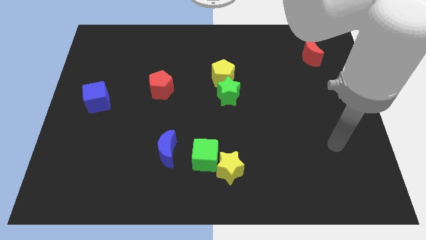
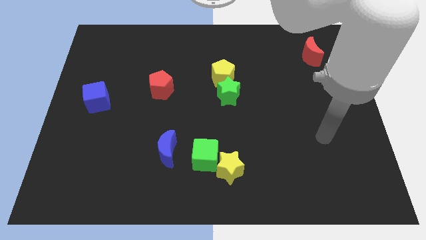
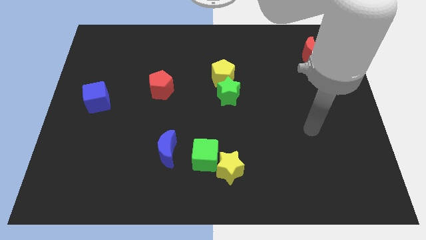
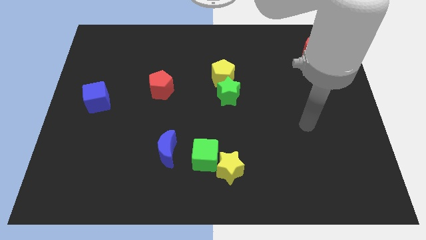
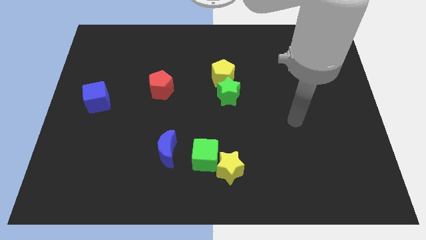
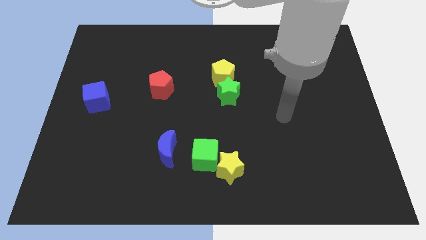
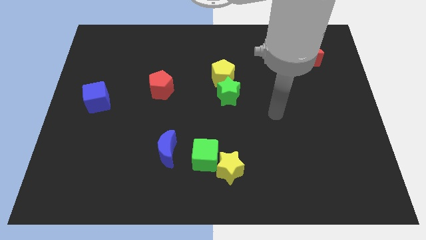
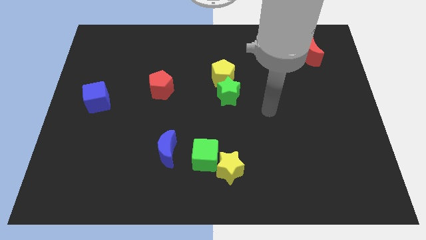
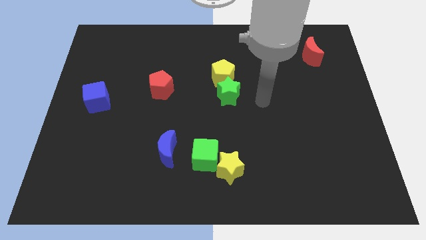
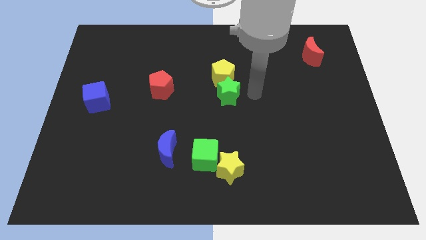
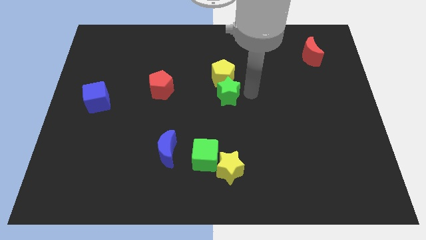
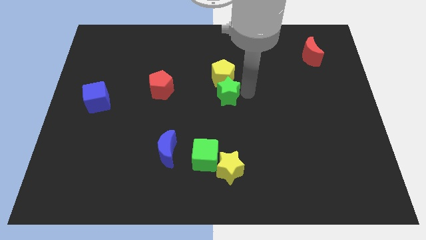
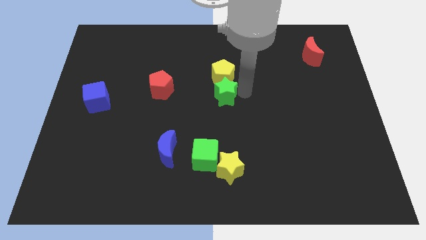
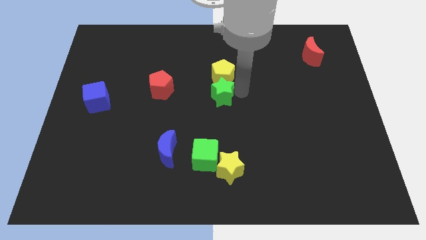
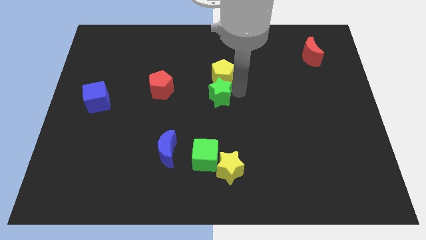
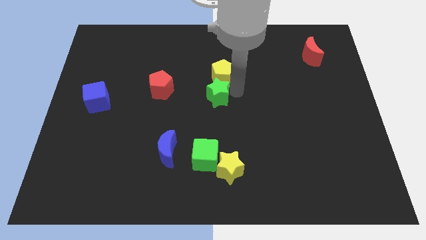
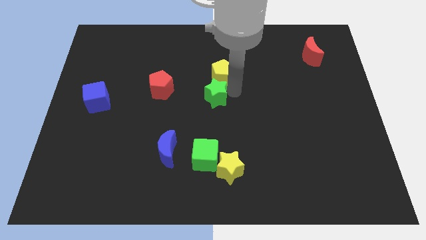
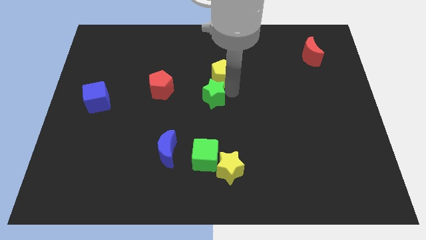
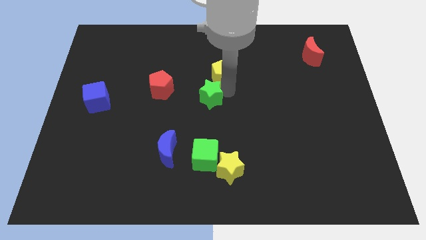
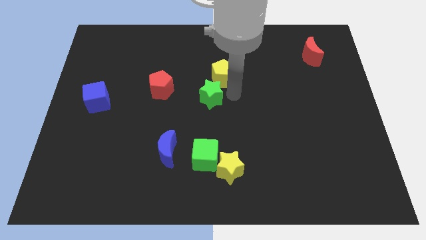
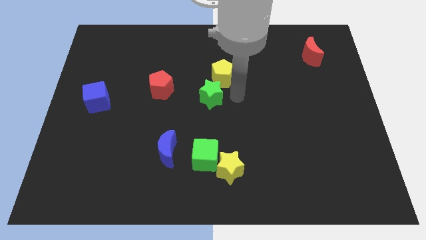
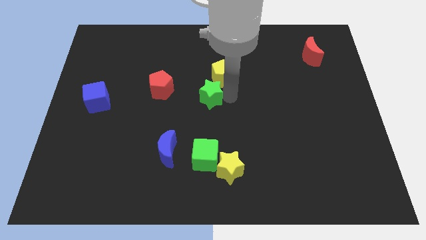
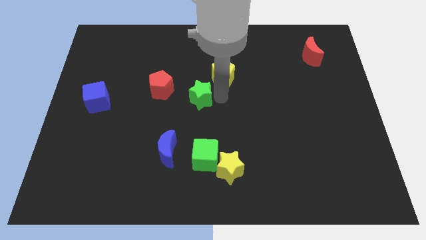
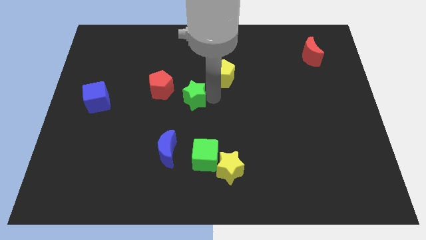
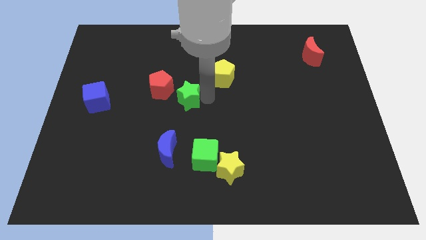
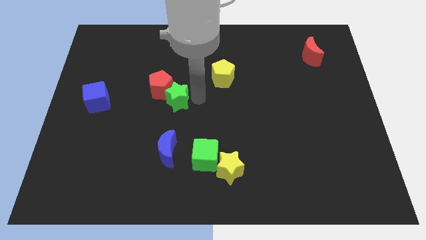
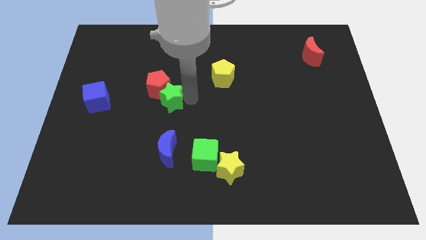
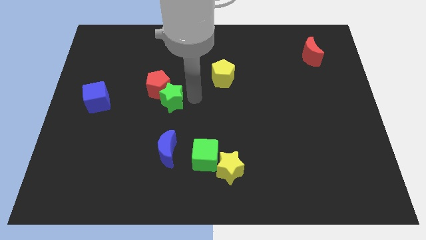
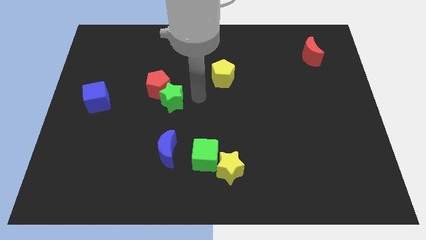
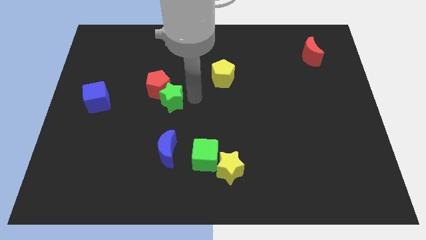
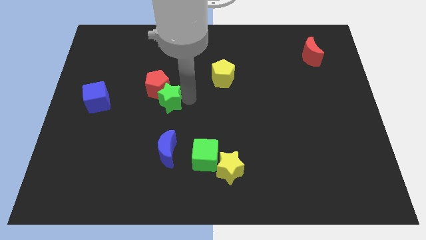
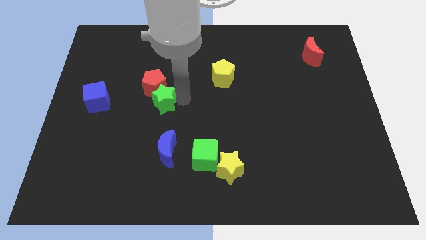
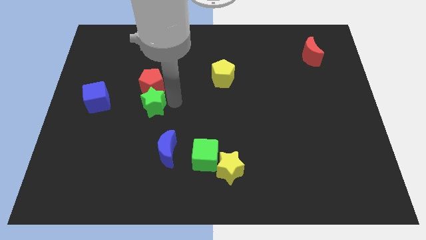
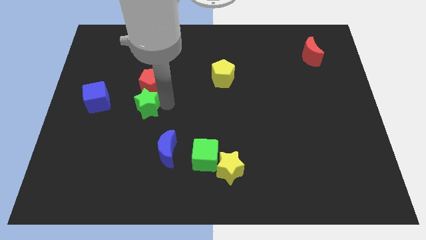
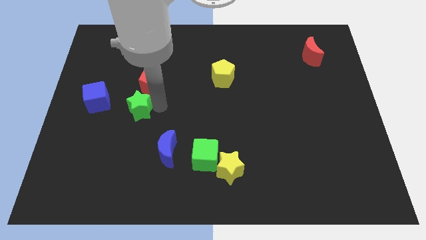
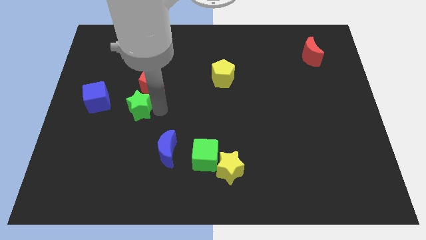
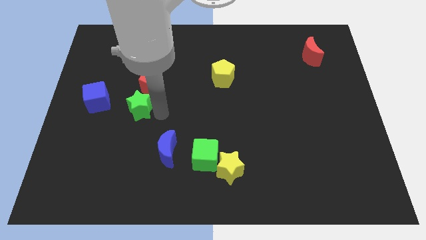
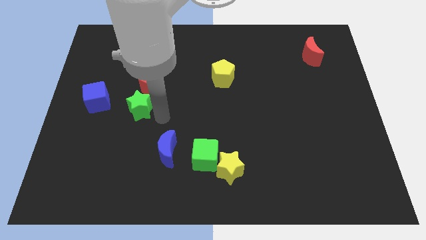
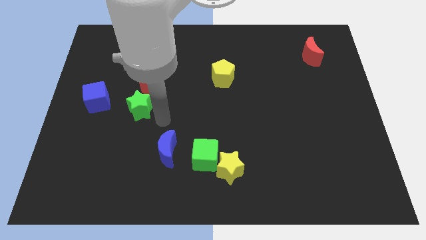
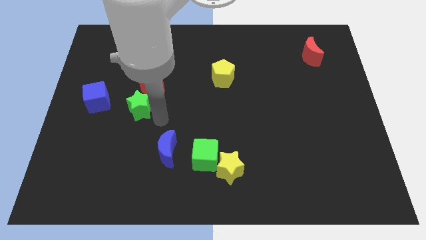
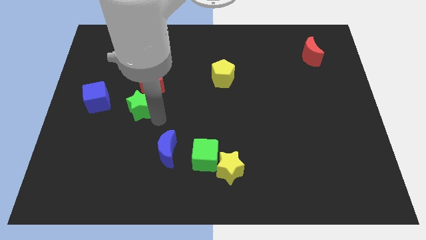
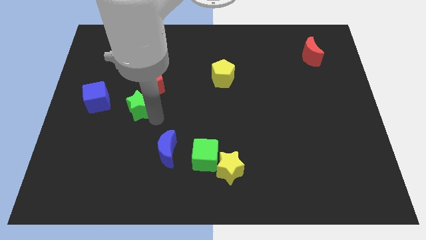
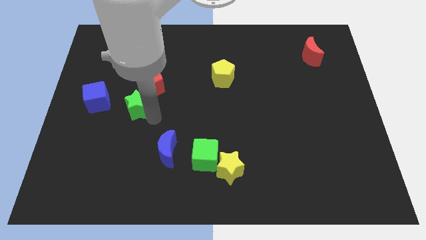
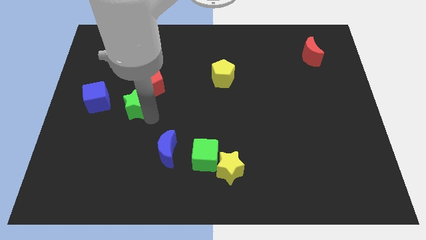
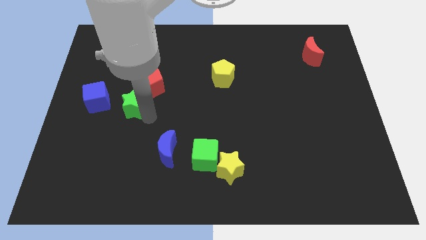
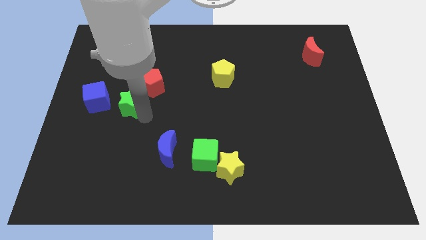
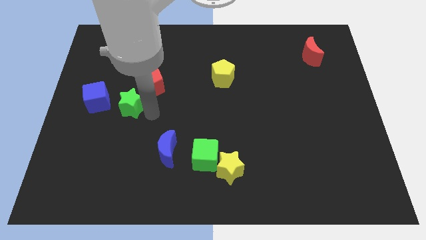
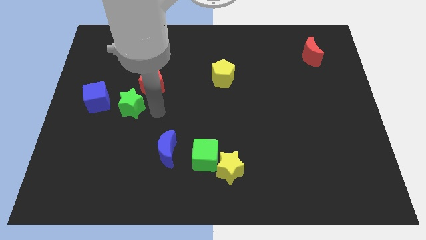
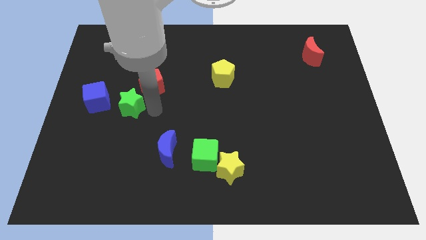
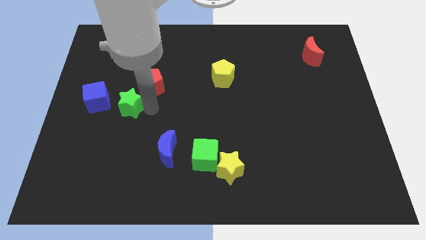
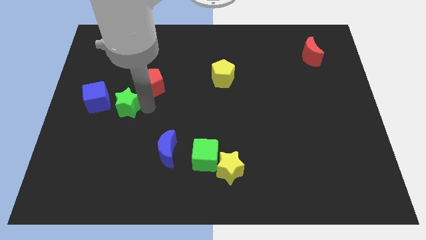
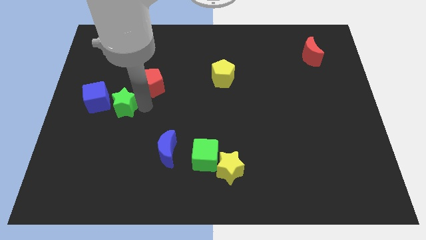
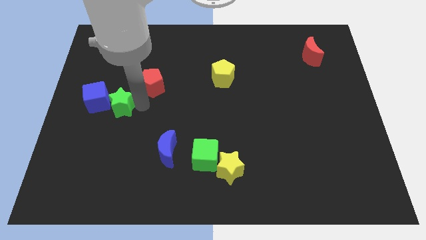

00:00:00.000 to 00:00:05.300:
put the green star towards the blue cube

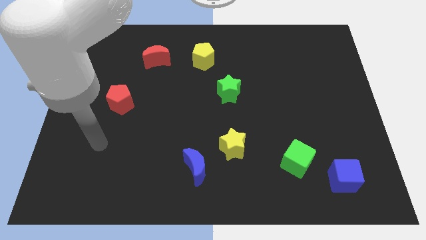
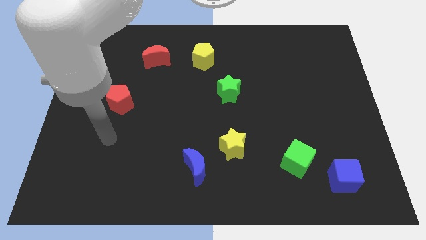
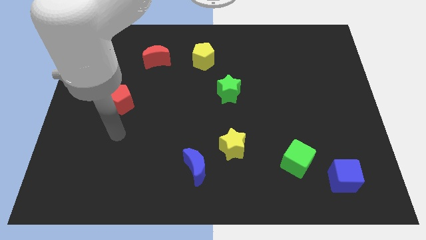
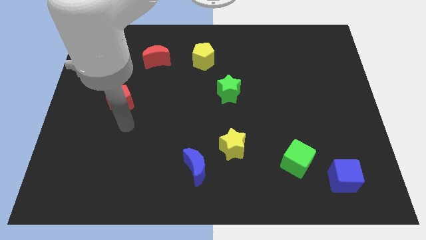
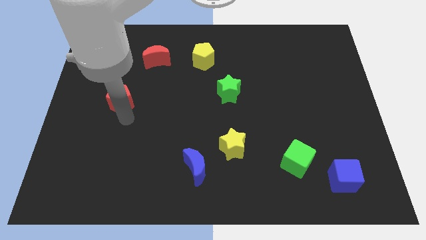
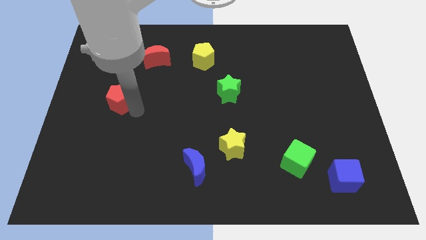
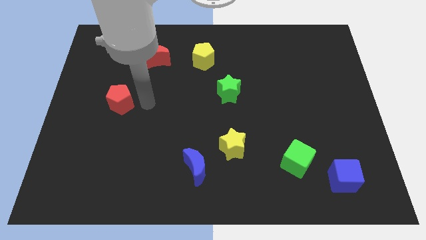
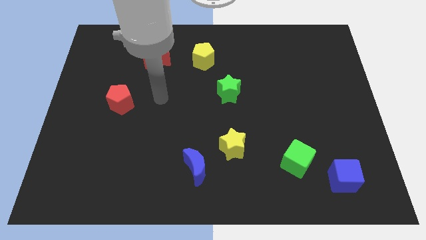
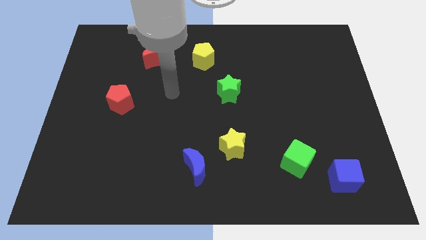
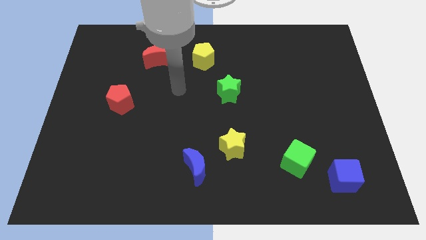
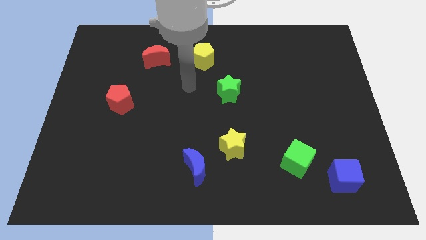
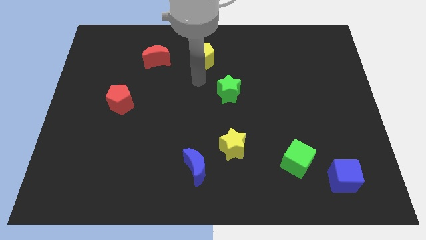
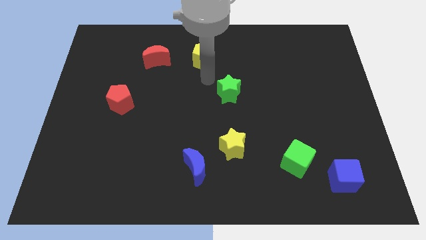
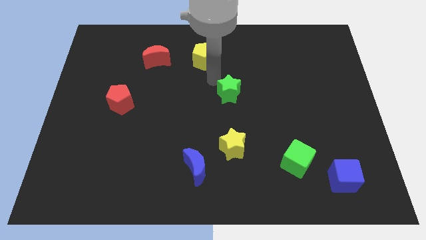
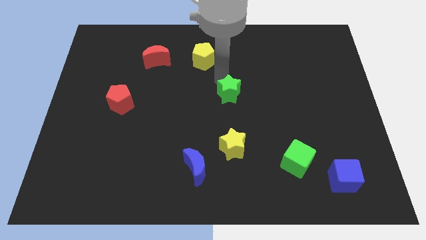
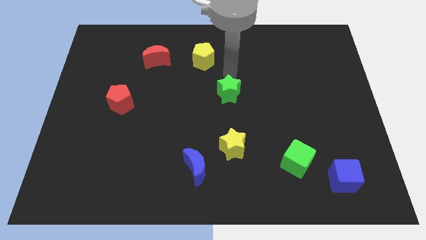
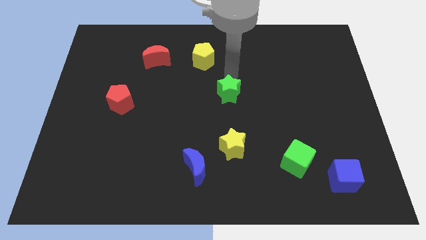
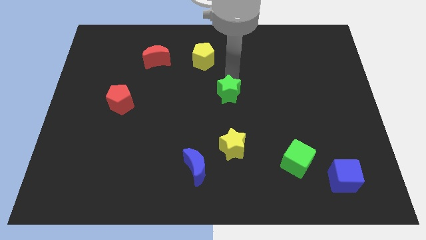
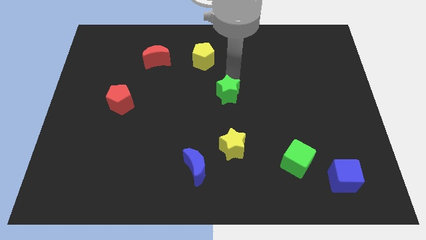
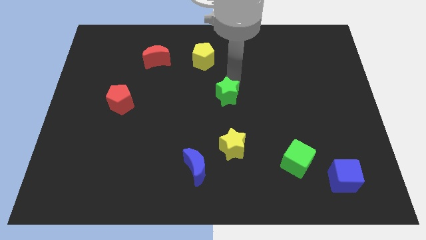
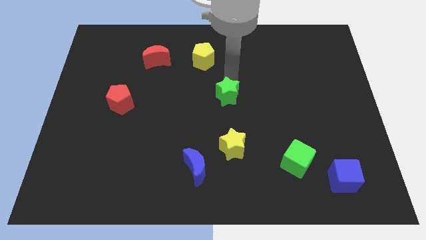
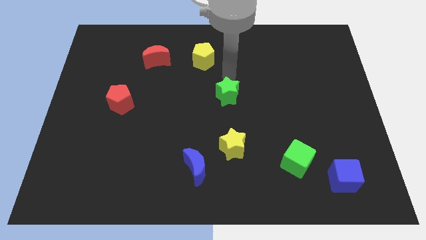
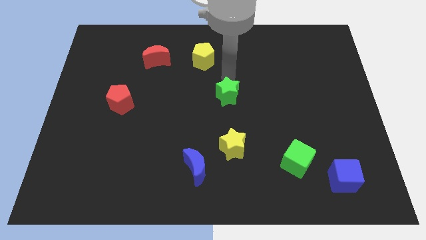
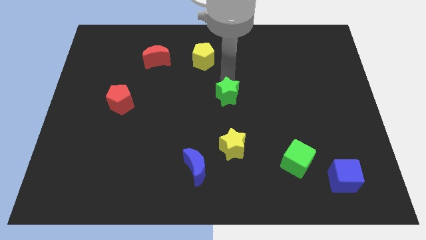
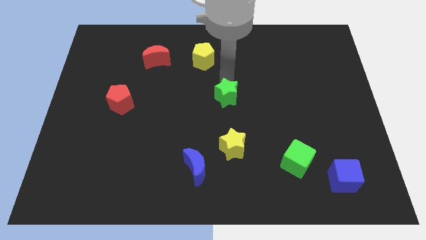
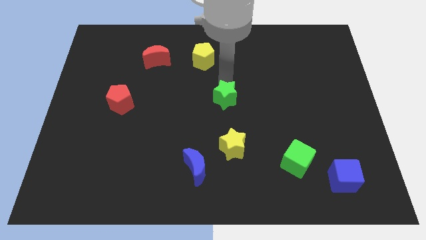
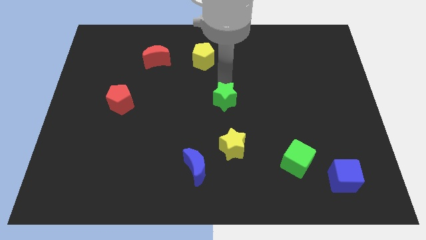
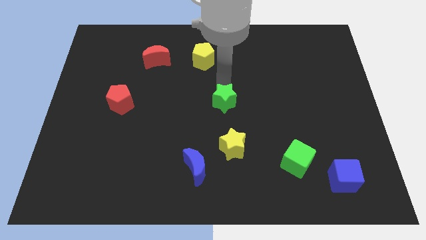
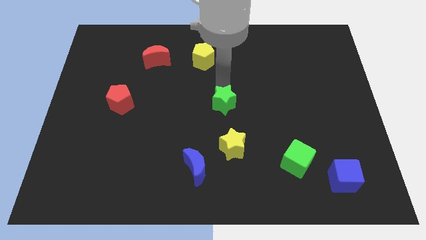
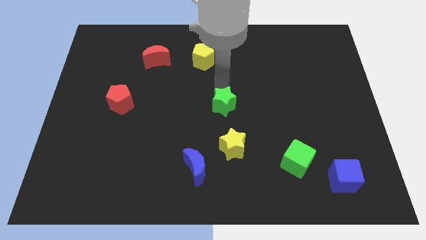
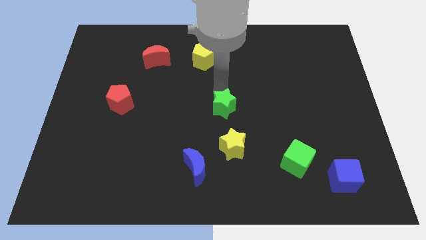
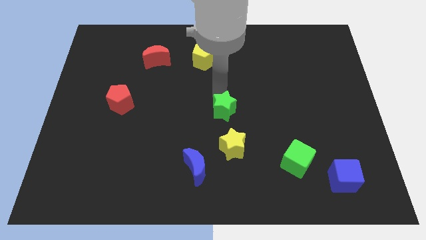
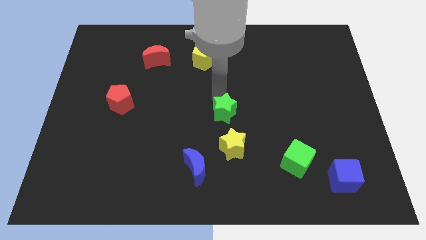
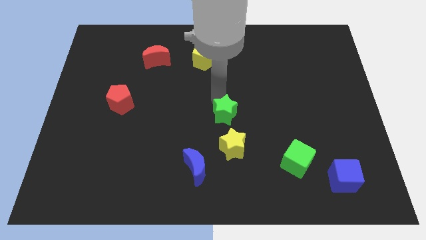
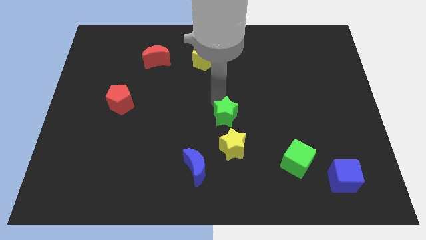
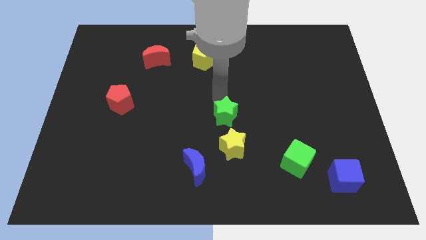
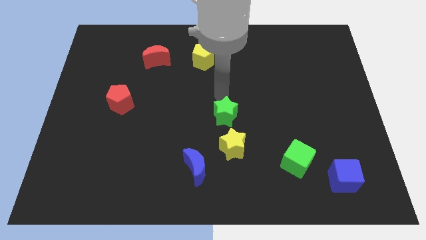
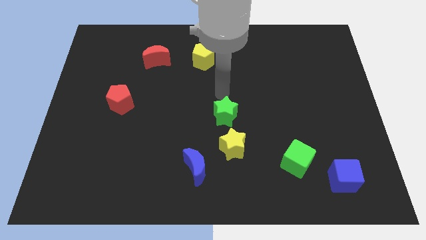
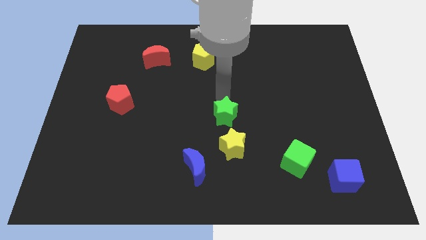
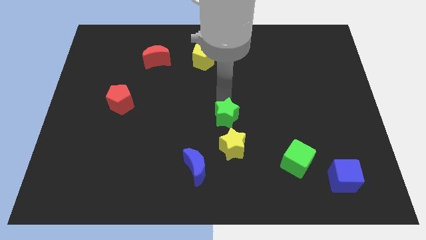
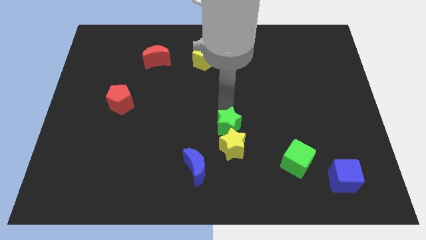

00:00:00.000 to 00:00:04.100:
put the green star towards the yellow star
